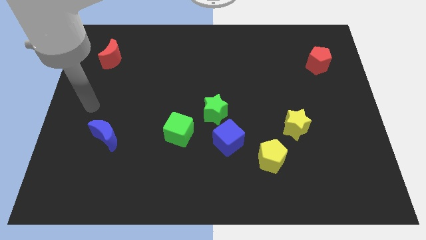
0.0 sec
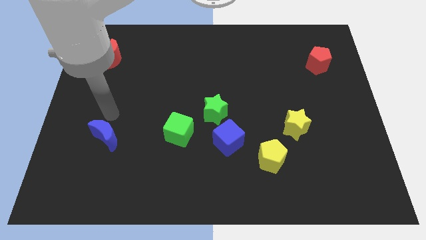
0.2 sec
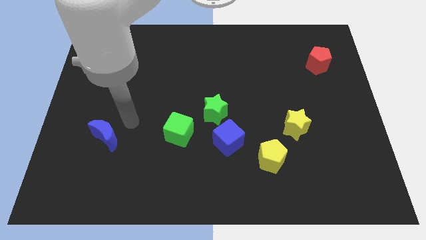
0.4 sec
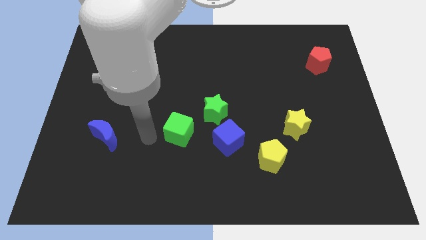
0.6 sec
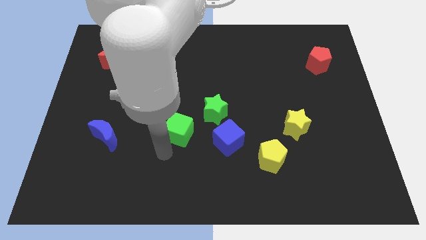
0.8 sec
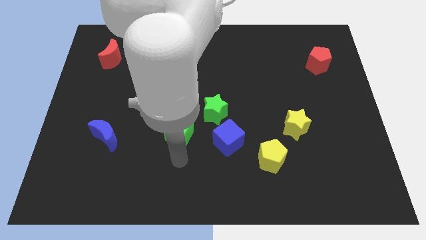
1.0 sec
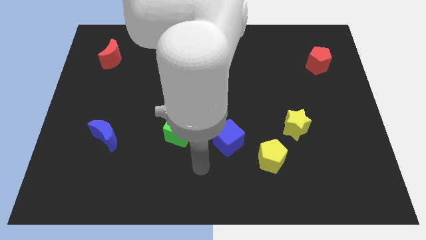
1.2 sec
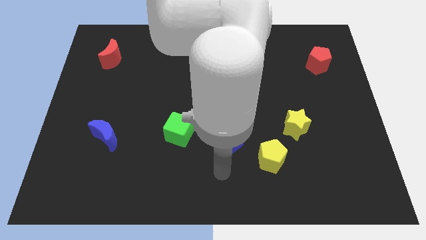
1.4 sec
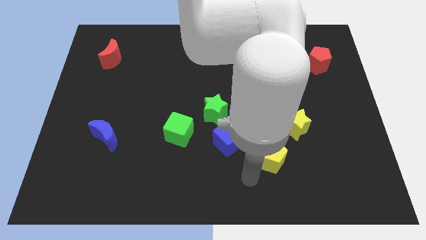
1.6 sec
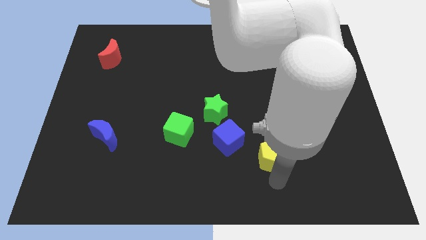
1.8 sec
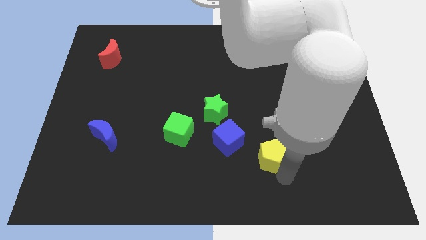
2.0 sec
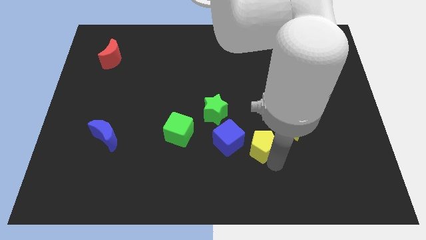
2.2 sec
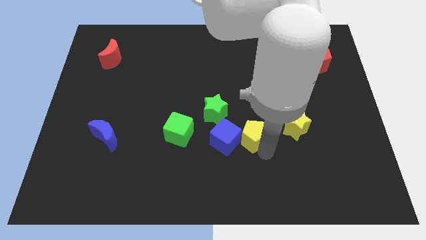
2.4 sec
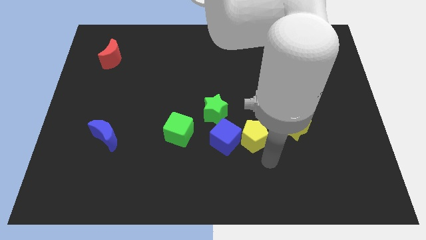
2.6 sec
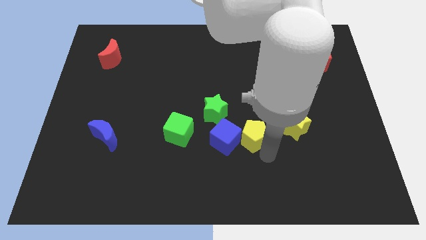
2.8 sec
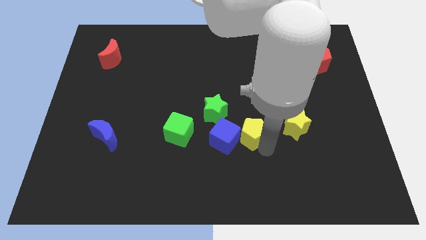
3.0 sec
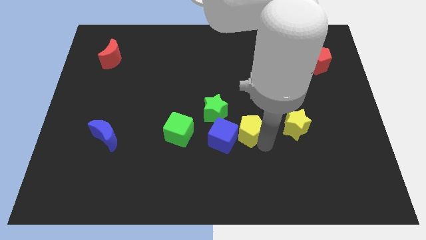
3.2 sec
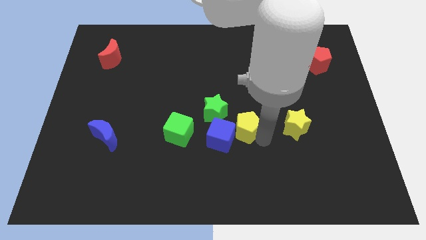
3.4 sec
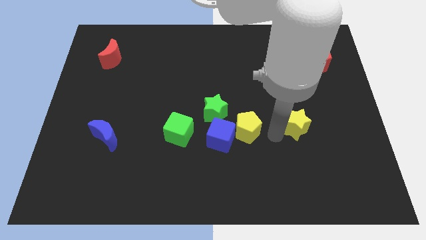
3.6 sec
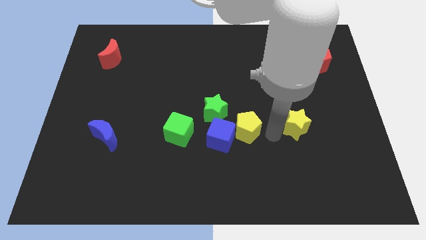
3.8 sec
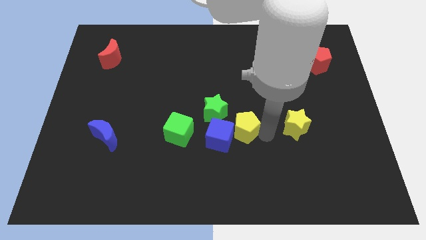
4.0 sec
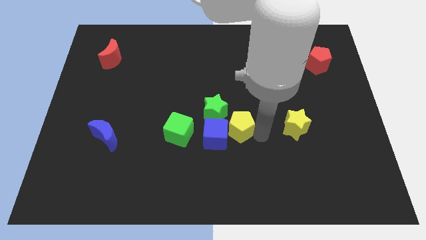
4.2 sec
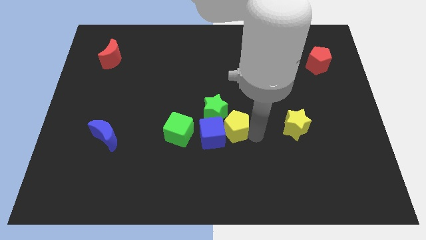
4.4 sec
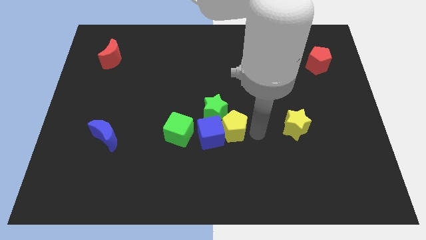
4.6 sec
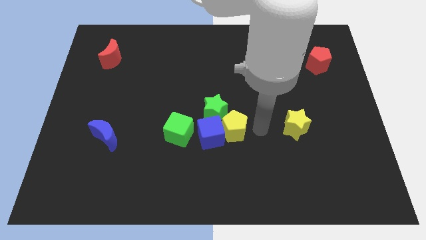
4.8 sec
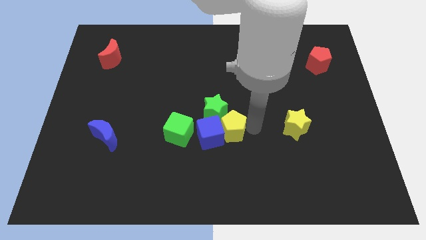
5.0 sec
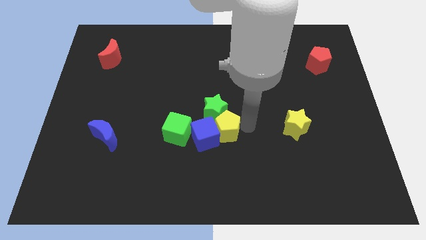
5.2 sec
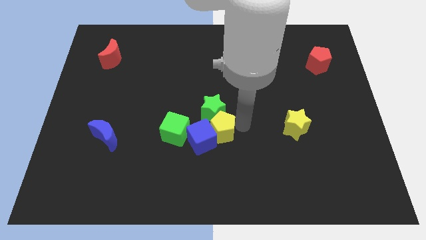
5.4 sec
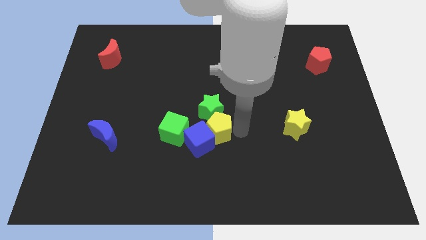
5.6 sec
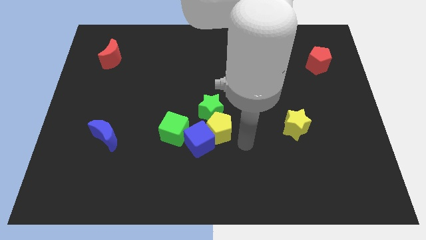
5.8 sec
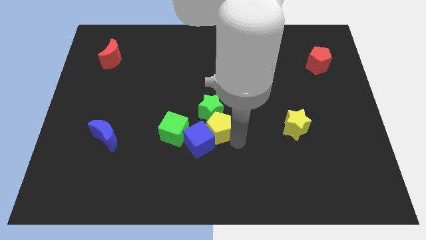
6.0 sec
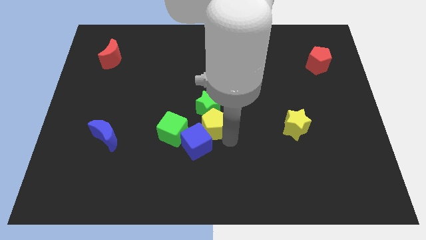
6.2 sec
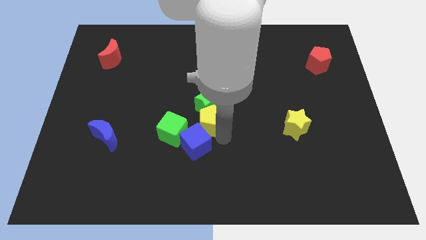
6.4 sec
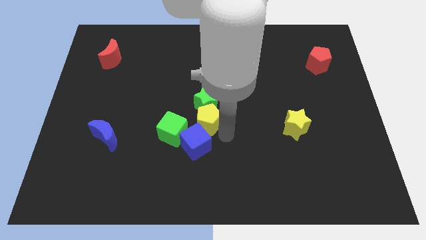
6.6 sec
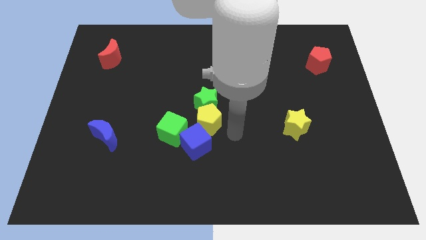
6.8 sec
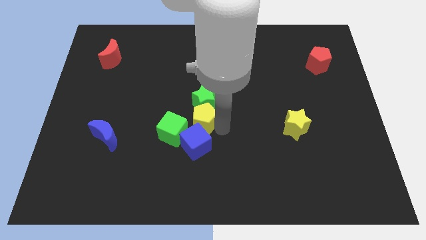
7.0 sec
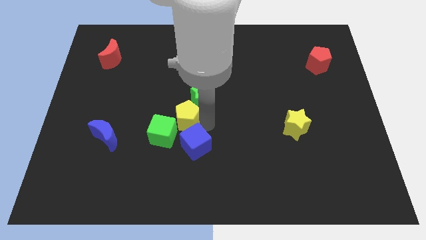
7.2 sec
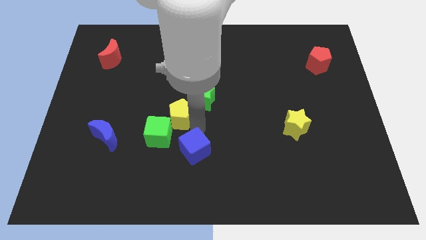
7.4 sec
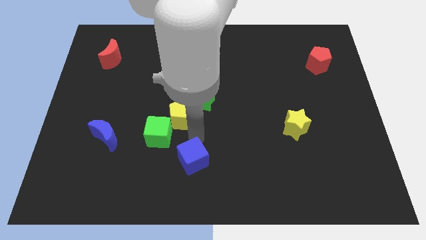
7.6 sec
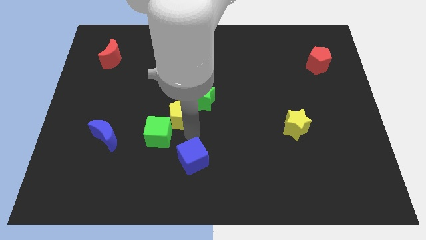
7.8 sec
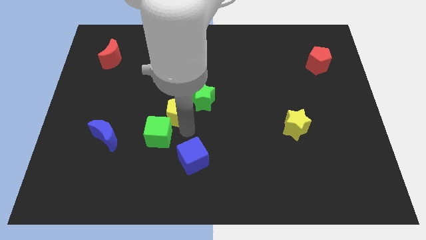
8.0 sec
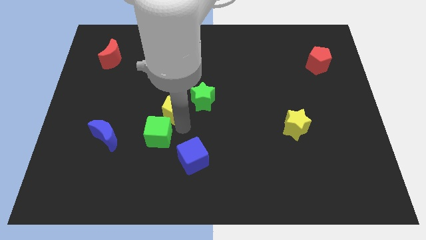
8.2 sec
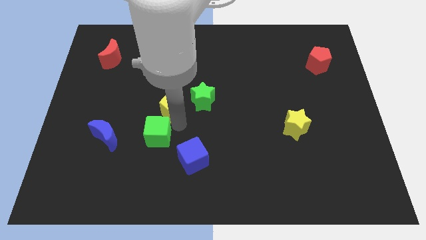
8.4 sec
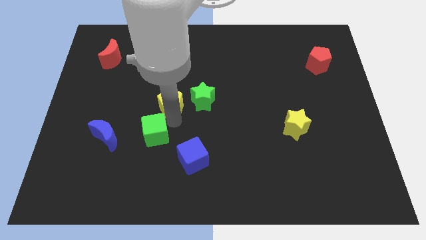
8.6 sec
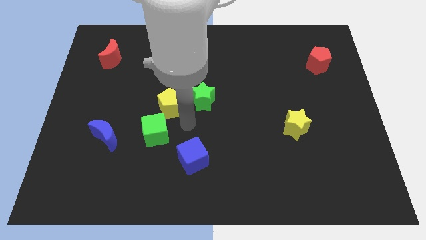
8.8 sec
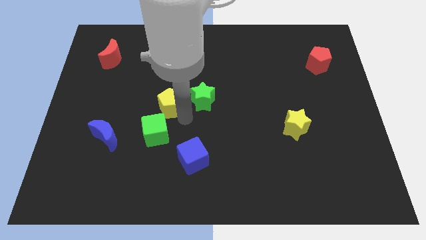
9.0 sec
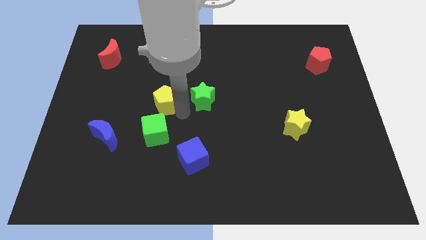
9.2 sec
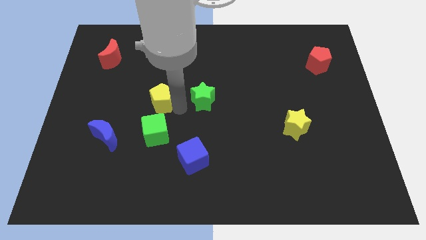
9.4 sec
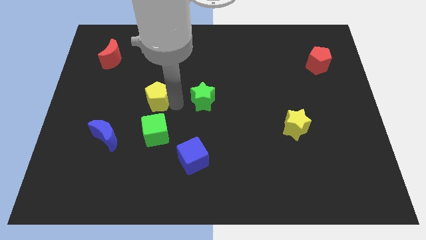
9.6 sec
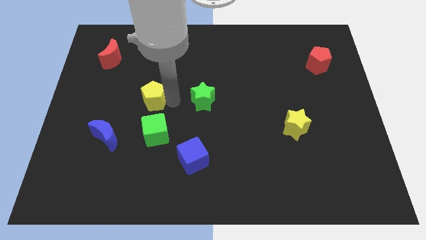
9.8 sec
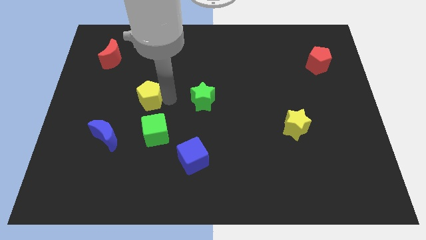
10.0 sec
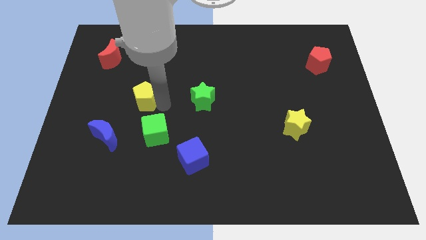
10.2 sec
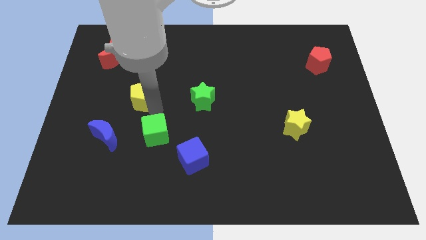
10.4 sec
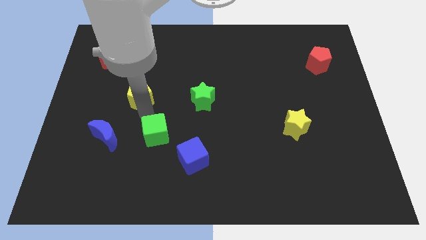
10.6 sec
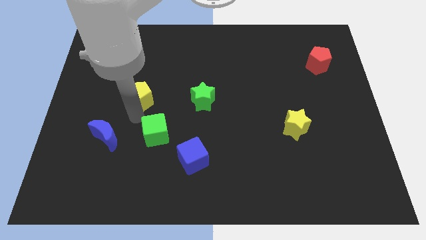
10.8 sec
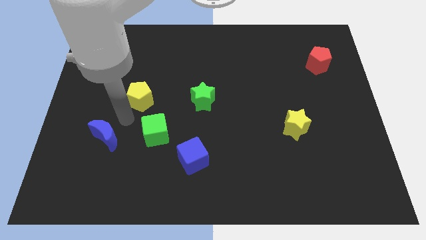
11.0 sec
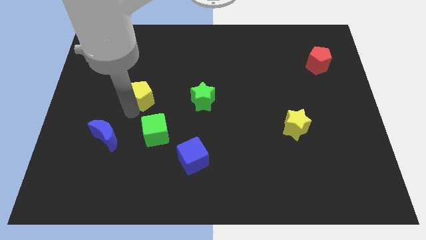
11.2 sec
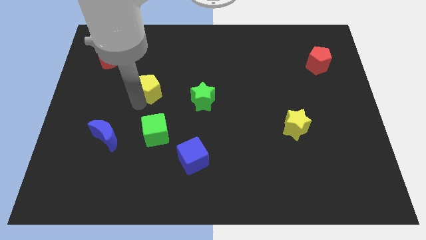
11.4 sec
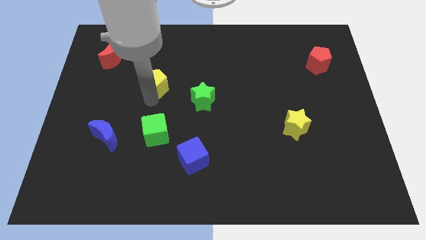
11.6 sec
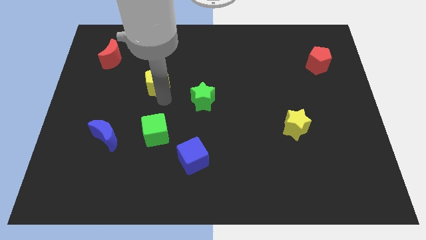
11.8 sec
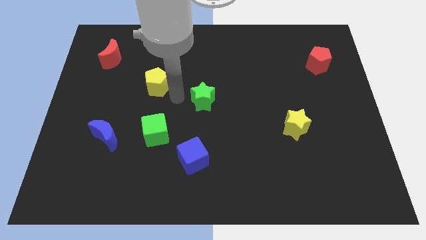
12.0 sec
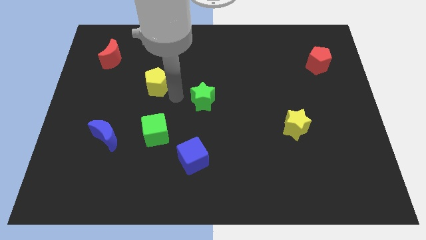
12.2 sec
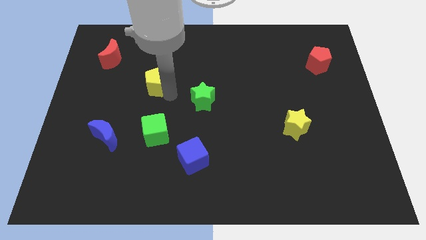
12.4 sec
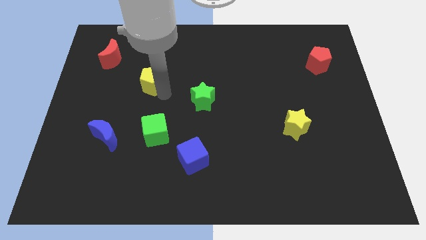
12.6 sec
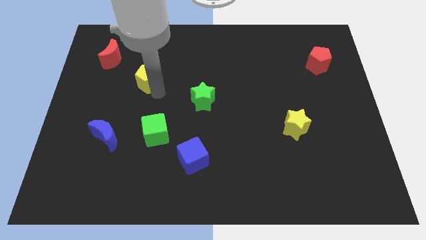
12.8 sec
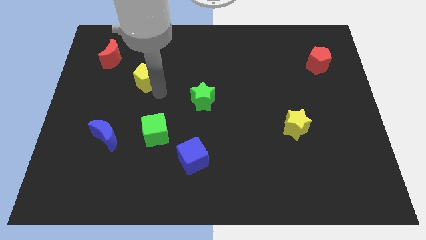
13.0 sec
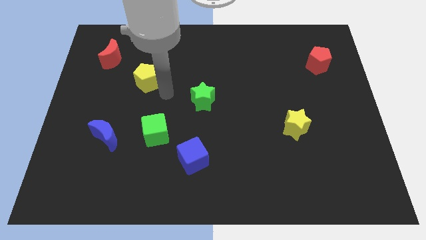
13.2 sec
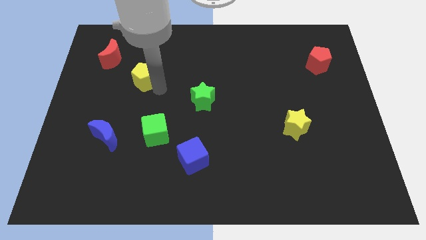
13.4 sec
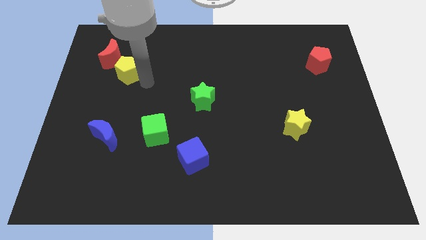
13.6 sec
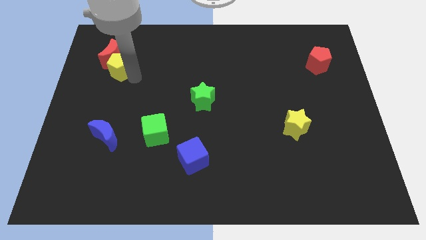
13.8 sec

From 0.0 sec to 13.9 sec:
slide the yellow pentagon next to the red moon

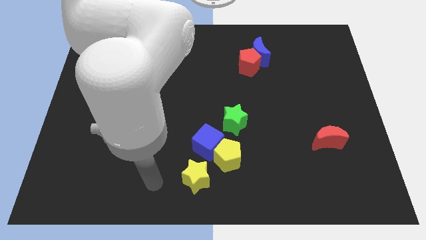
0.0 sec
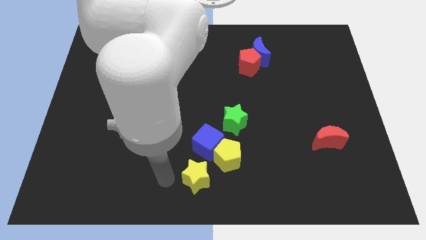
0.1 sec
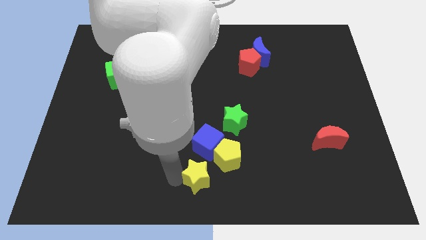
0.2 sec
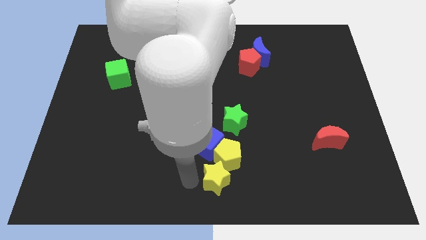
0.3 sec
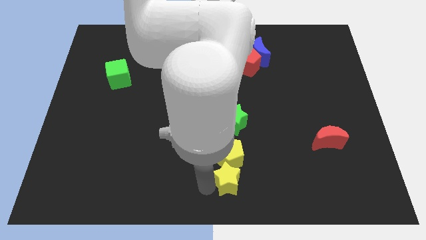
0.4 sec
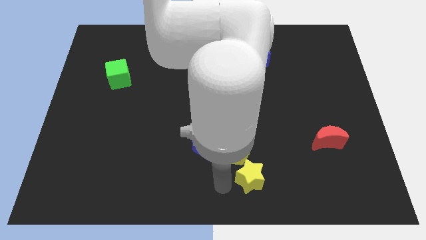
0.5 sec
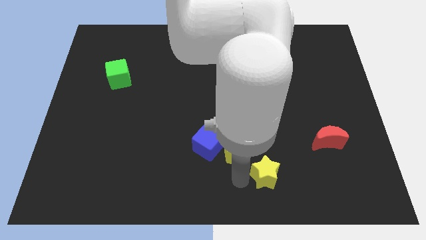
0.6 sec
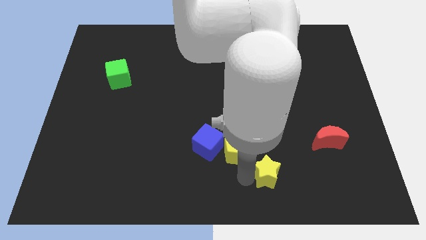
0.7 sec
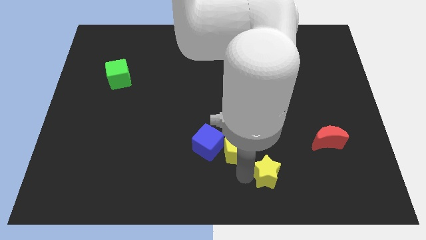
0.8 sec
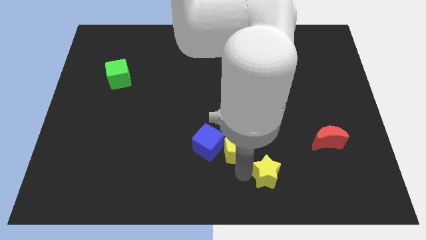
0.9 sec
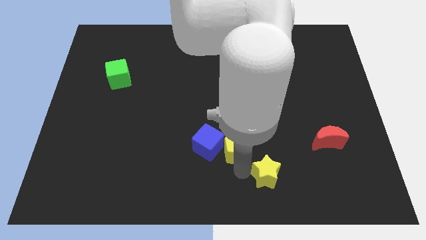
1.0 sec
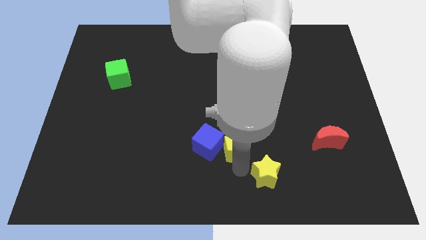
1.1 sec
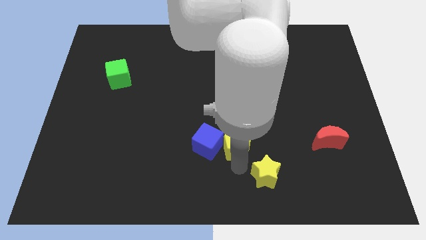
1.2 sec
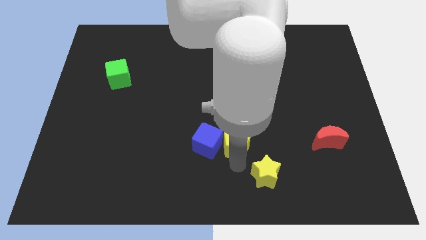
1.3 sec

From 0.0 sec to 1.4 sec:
move the yellow pentagon to the green star
